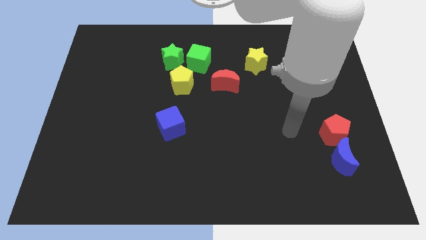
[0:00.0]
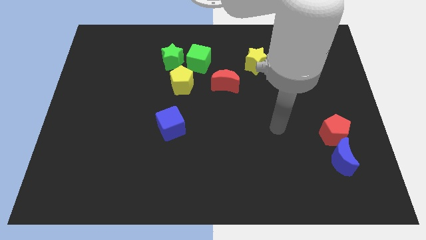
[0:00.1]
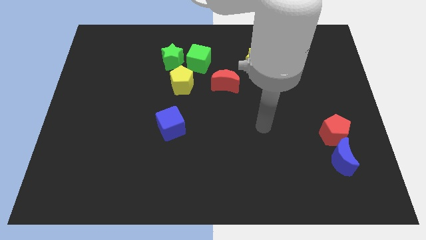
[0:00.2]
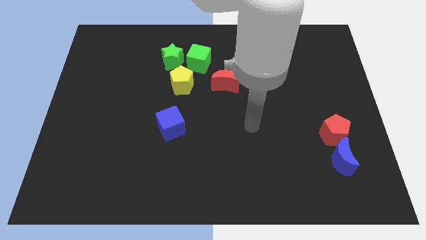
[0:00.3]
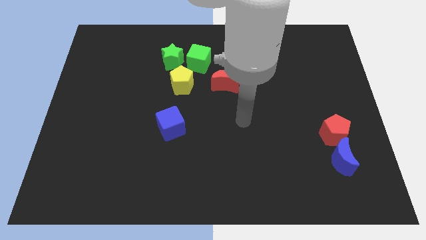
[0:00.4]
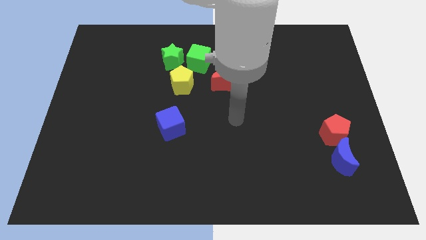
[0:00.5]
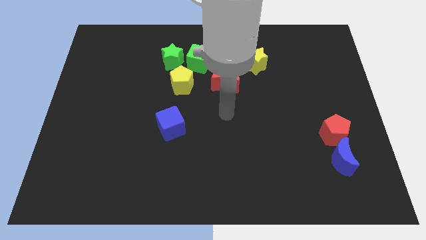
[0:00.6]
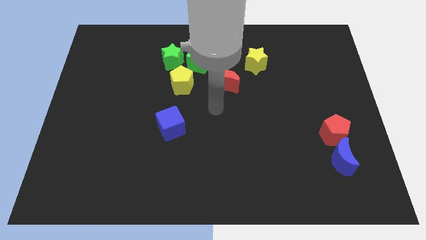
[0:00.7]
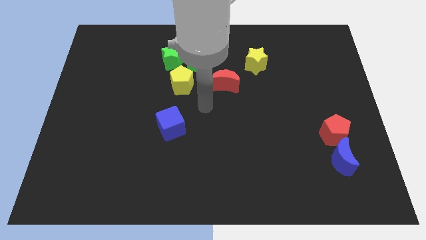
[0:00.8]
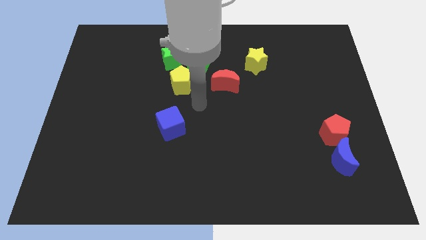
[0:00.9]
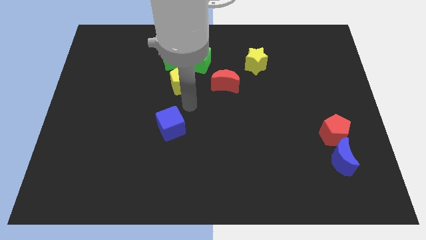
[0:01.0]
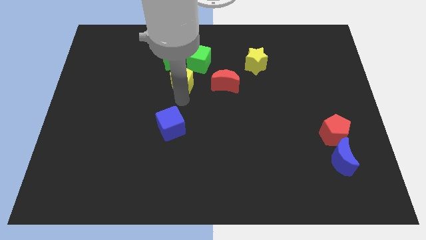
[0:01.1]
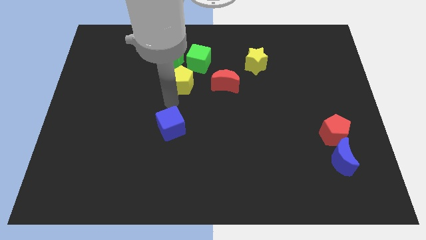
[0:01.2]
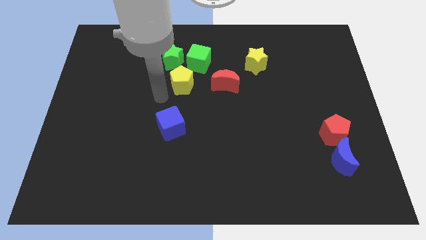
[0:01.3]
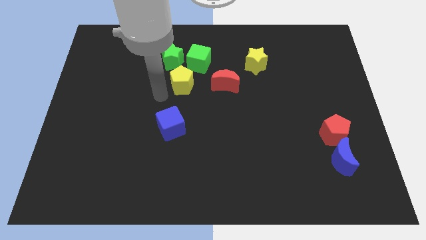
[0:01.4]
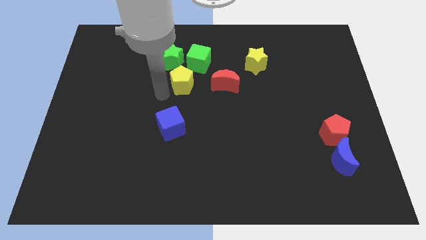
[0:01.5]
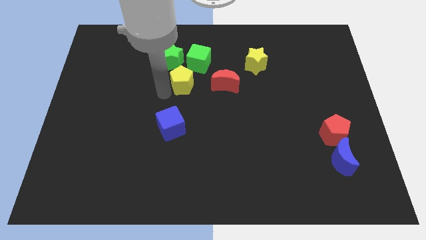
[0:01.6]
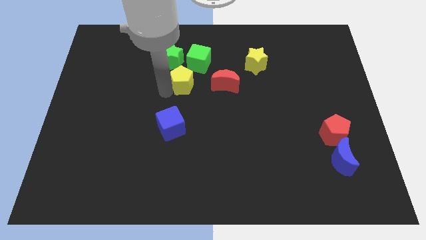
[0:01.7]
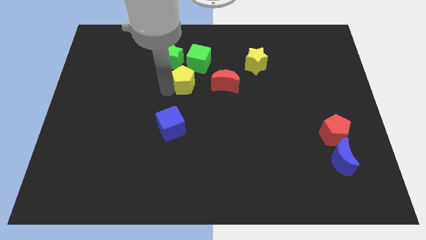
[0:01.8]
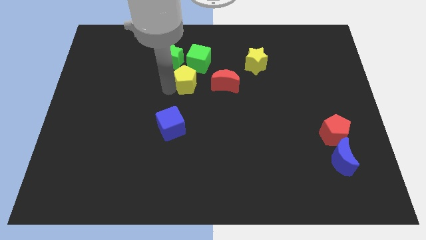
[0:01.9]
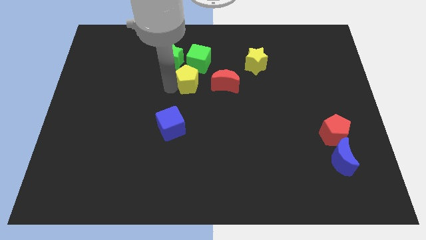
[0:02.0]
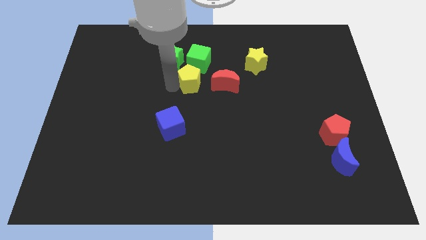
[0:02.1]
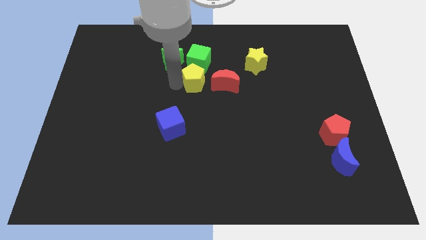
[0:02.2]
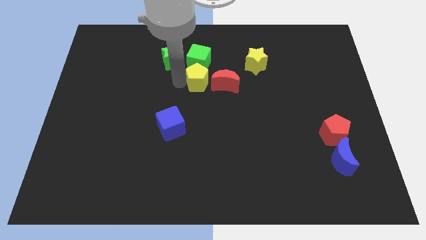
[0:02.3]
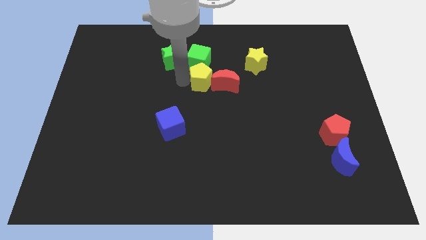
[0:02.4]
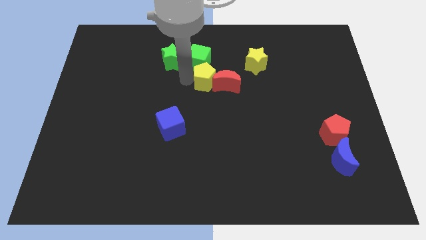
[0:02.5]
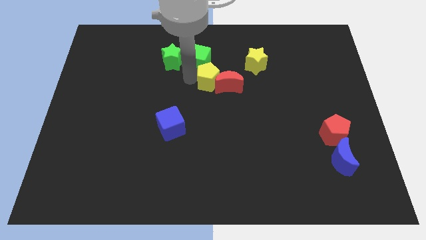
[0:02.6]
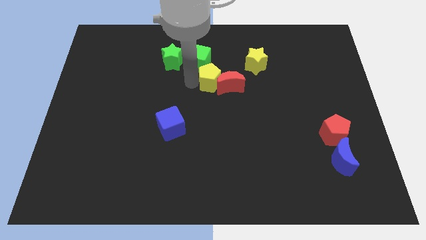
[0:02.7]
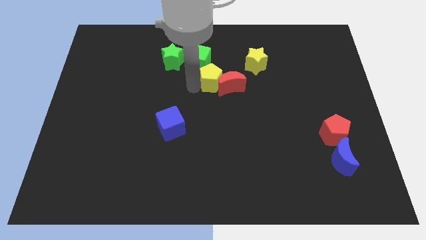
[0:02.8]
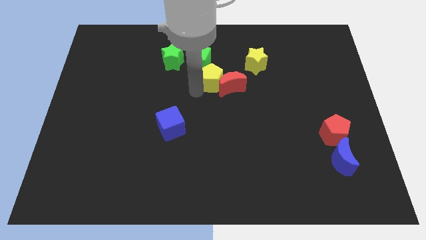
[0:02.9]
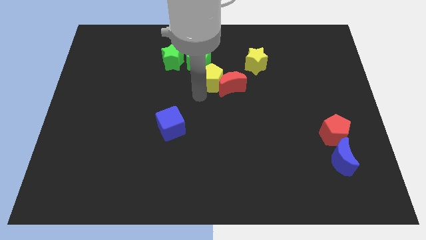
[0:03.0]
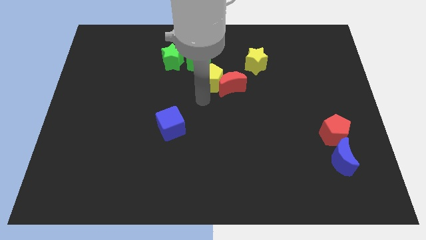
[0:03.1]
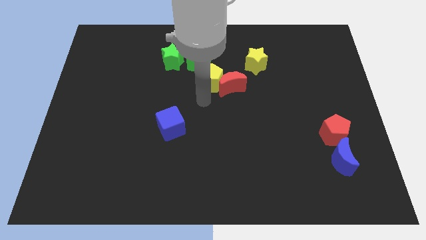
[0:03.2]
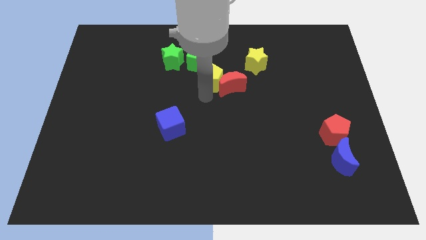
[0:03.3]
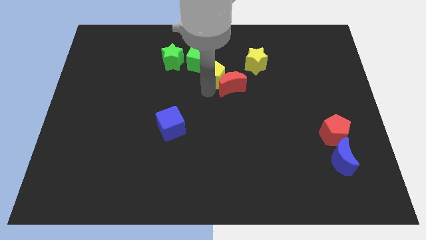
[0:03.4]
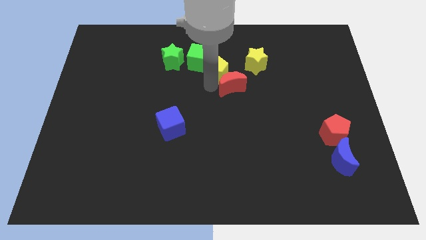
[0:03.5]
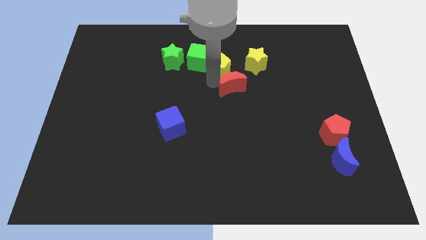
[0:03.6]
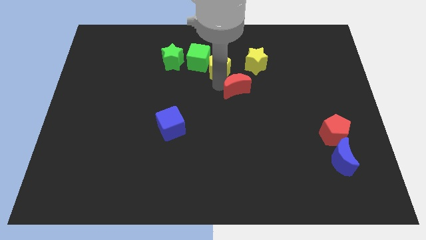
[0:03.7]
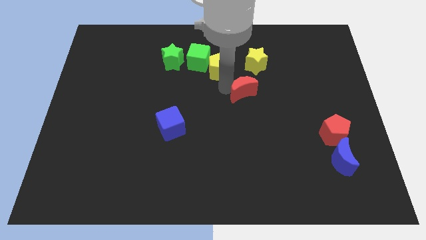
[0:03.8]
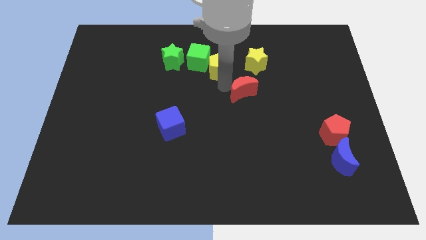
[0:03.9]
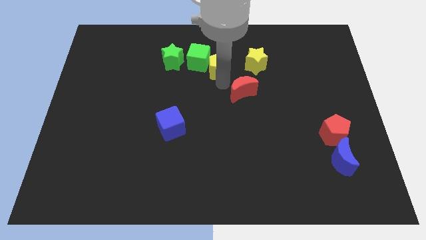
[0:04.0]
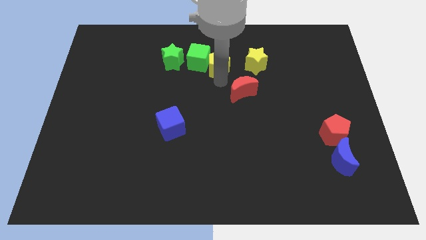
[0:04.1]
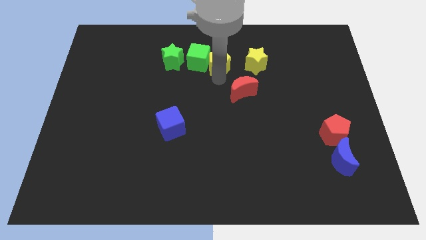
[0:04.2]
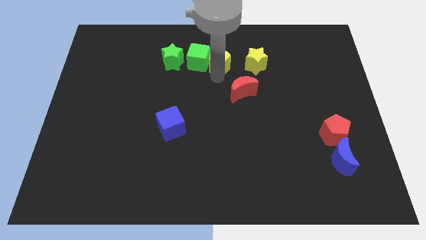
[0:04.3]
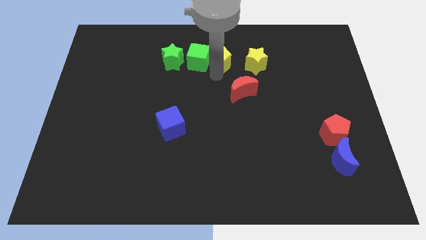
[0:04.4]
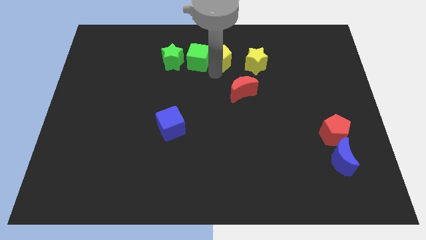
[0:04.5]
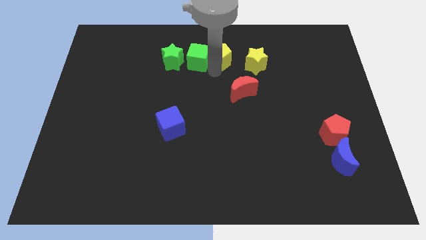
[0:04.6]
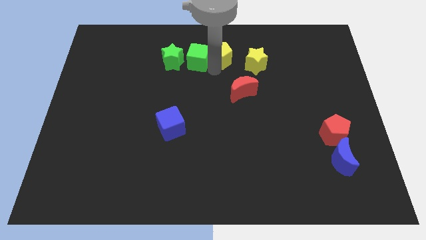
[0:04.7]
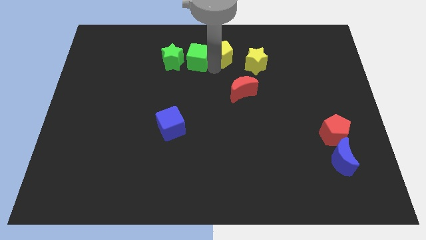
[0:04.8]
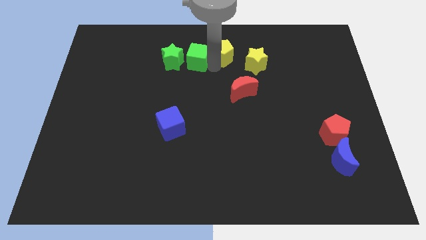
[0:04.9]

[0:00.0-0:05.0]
move the yellow pentagon to the towards your base
